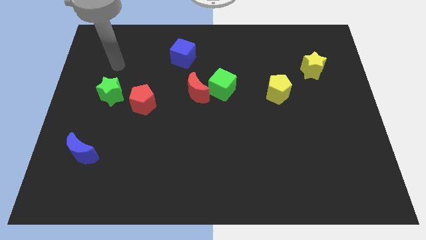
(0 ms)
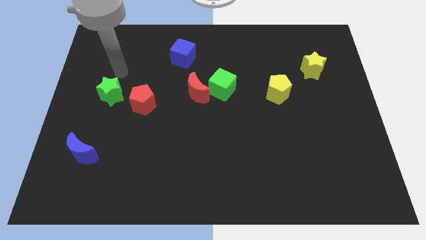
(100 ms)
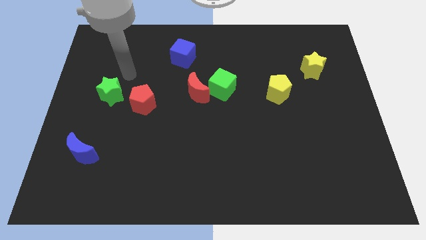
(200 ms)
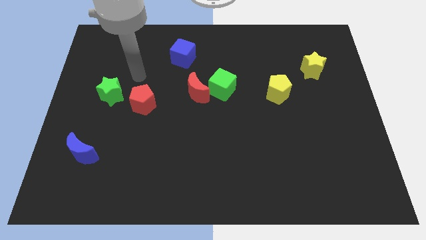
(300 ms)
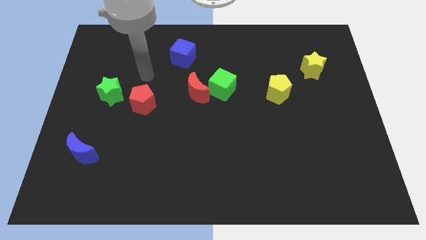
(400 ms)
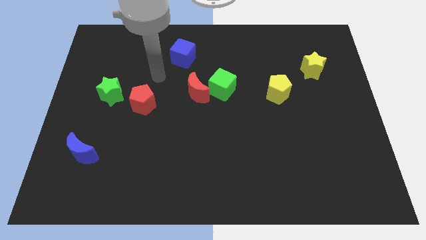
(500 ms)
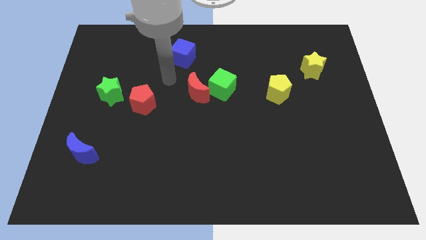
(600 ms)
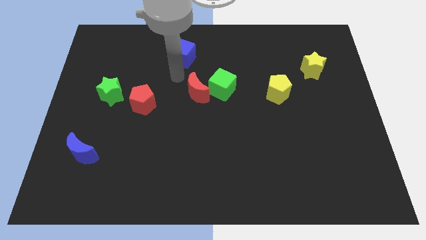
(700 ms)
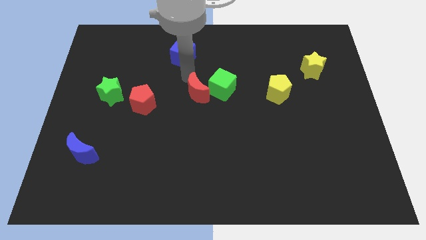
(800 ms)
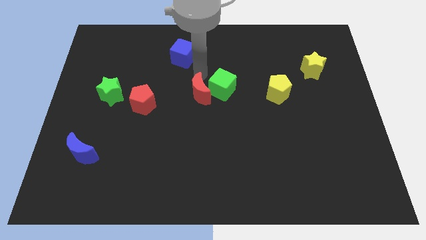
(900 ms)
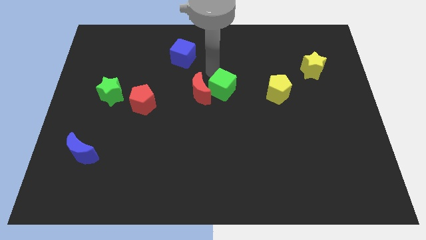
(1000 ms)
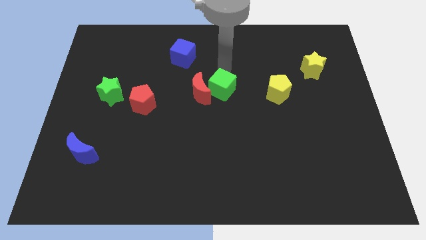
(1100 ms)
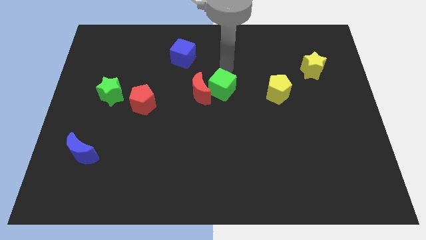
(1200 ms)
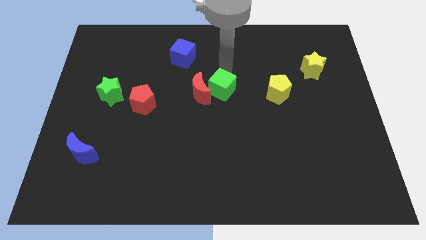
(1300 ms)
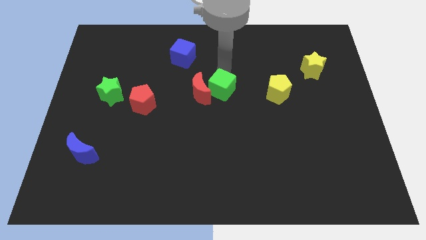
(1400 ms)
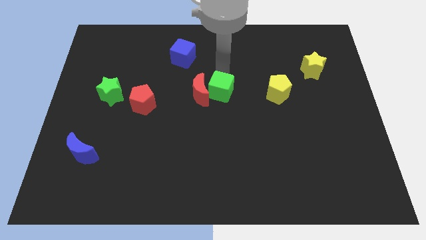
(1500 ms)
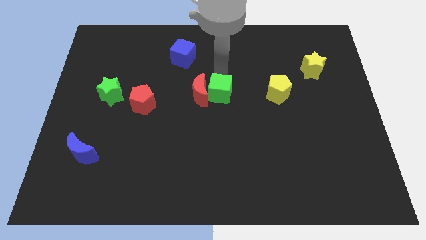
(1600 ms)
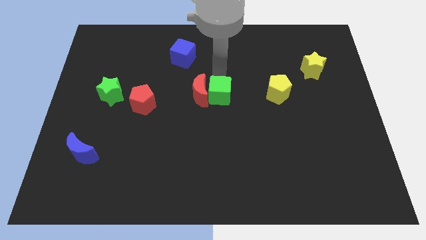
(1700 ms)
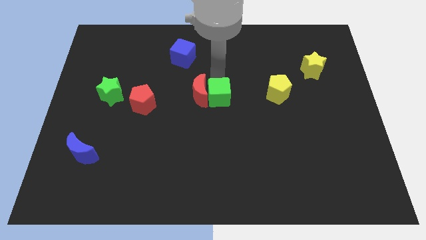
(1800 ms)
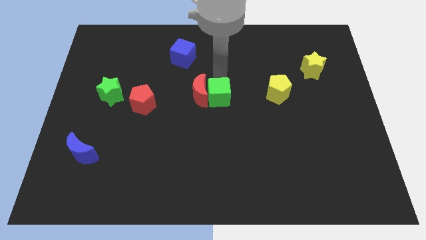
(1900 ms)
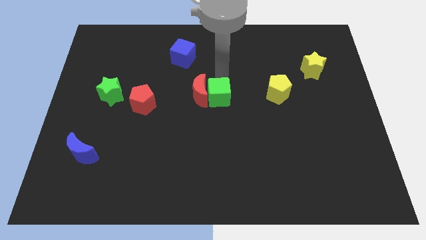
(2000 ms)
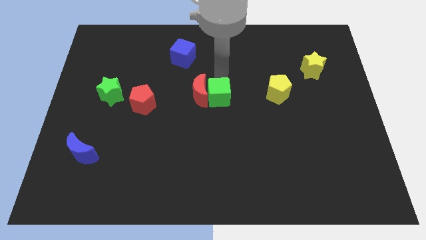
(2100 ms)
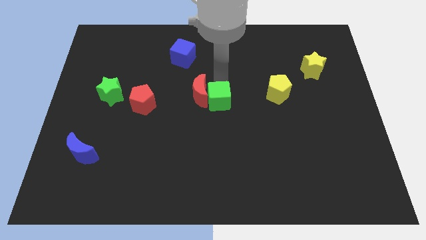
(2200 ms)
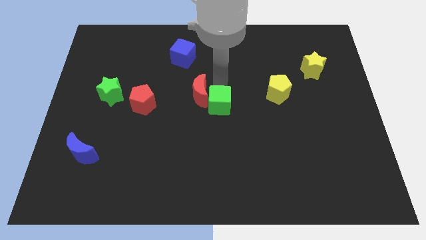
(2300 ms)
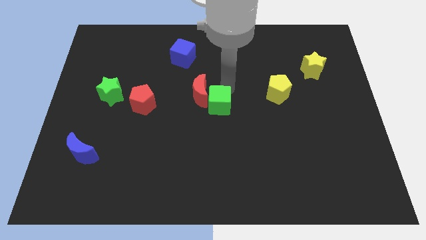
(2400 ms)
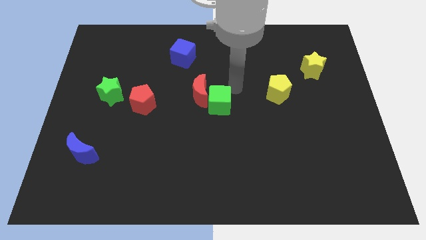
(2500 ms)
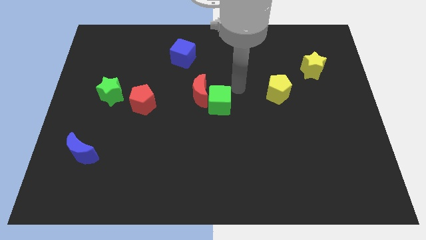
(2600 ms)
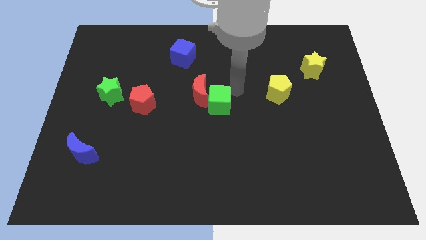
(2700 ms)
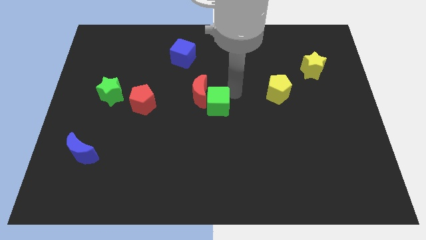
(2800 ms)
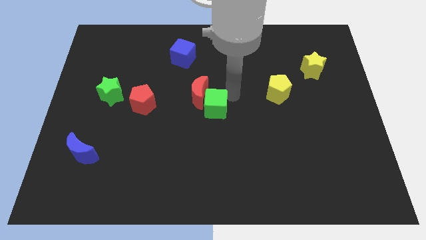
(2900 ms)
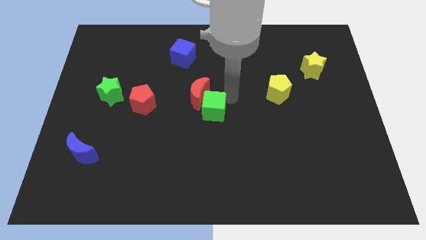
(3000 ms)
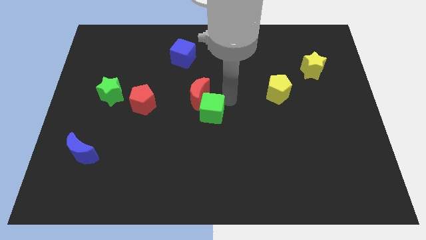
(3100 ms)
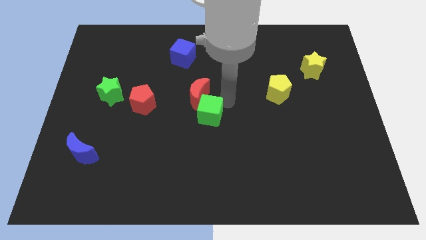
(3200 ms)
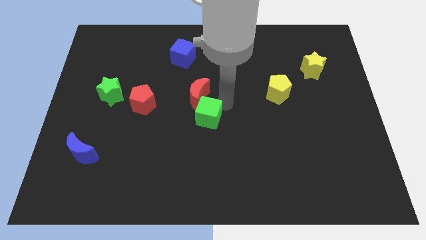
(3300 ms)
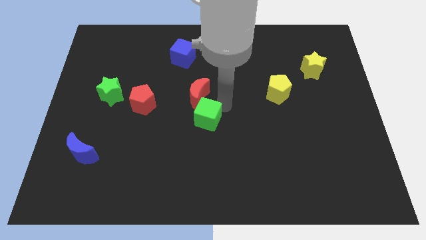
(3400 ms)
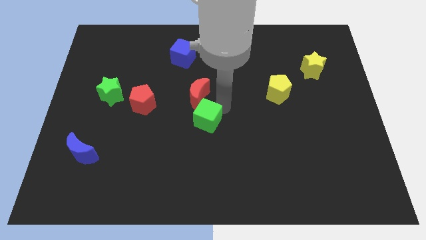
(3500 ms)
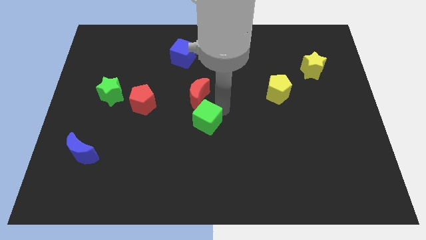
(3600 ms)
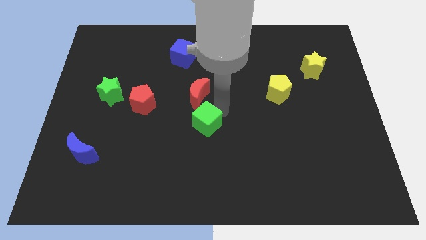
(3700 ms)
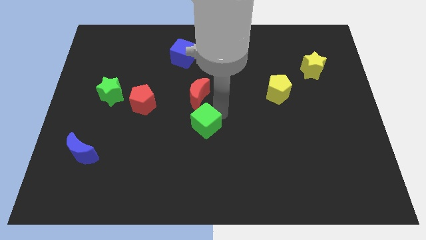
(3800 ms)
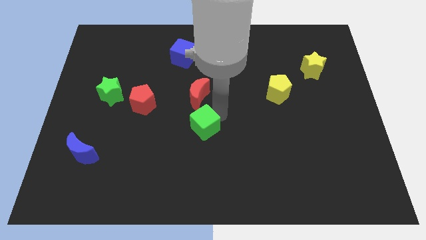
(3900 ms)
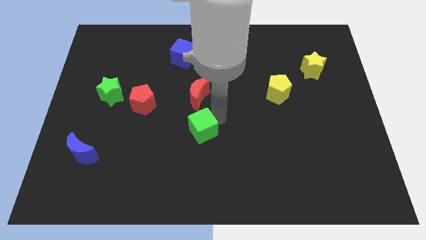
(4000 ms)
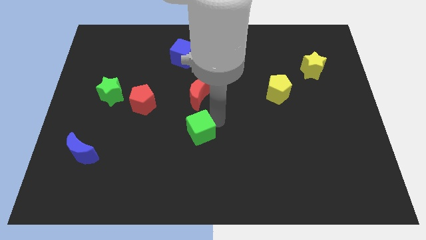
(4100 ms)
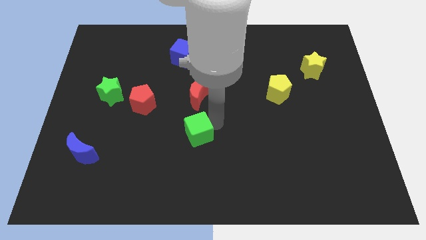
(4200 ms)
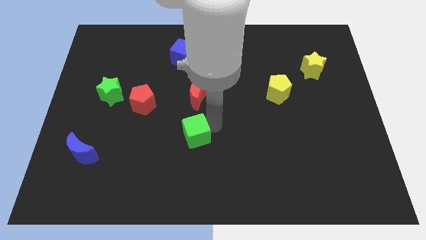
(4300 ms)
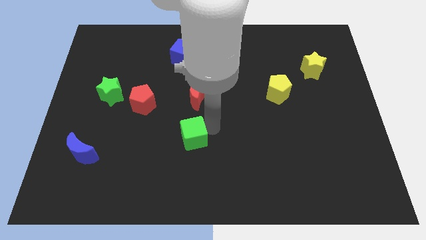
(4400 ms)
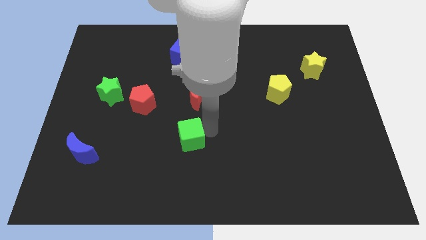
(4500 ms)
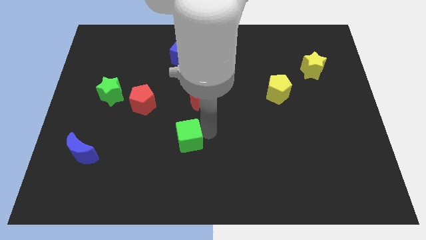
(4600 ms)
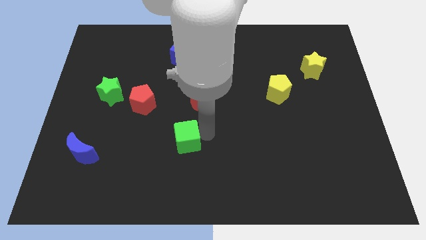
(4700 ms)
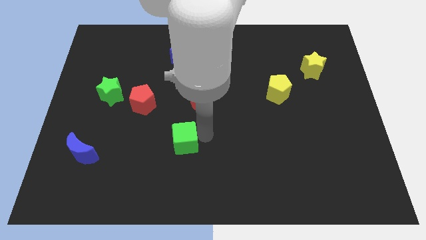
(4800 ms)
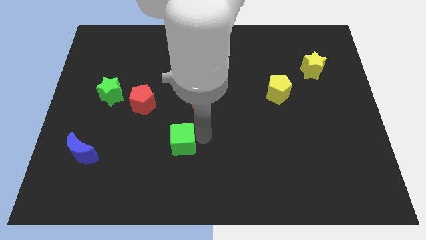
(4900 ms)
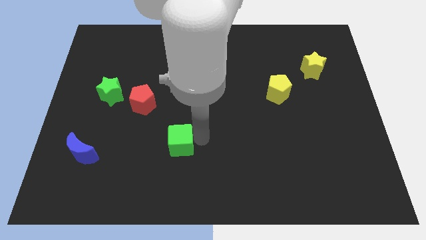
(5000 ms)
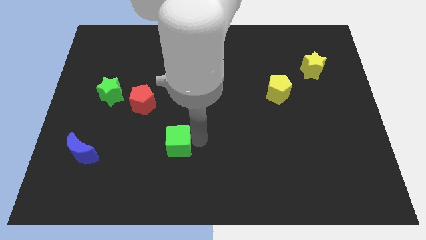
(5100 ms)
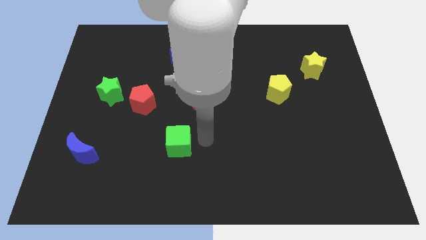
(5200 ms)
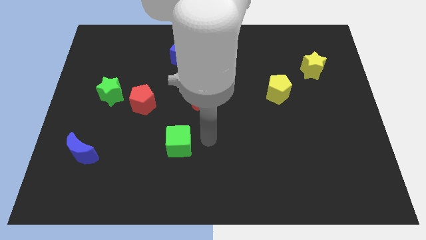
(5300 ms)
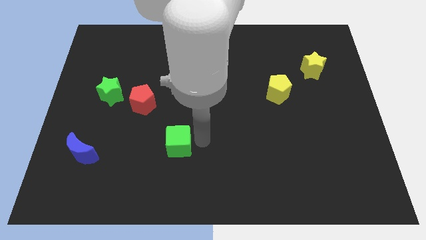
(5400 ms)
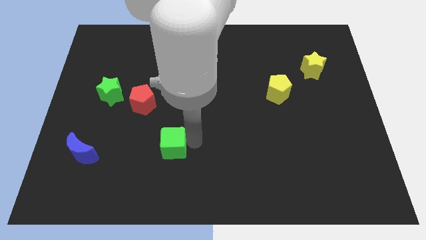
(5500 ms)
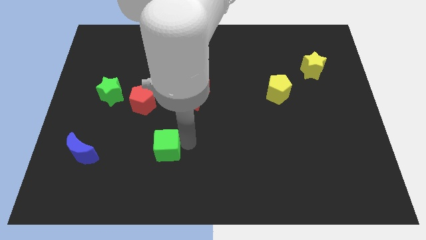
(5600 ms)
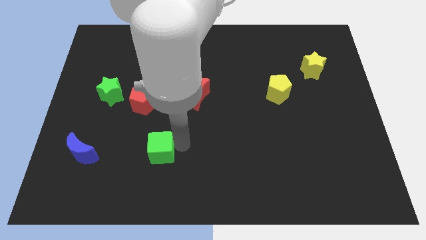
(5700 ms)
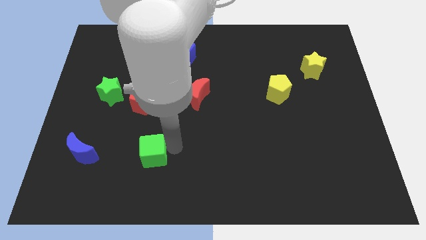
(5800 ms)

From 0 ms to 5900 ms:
put the green cube right of the blue moon
